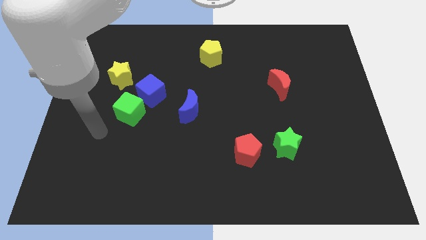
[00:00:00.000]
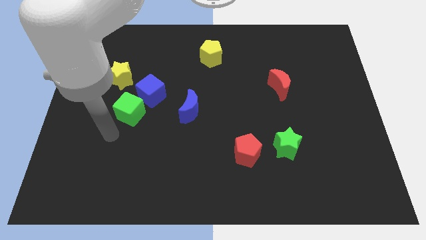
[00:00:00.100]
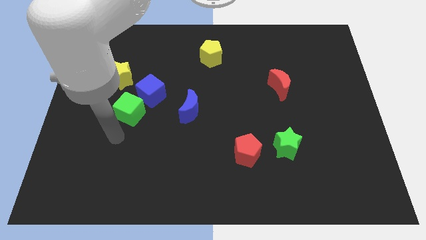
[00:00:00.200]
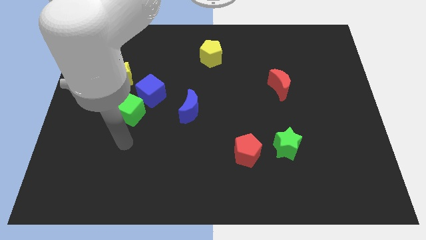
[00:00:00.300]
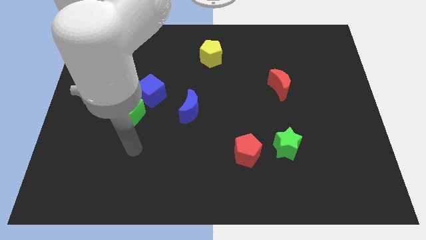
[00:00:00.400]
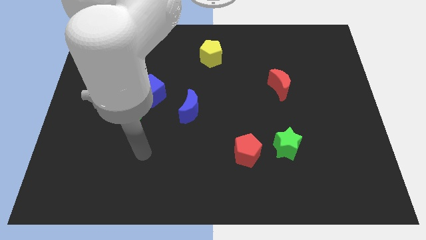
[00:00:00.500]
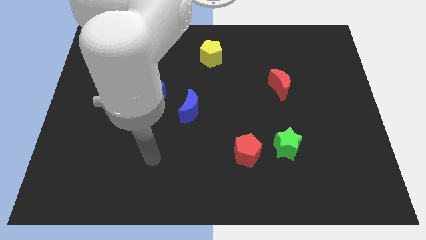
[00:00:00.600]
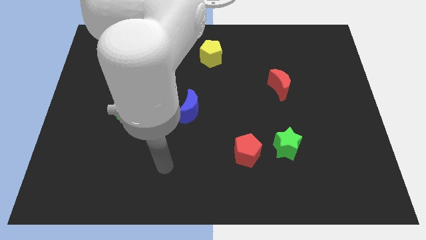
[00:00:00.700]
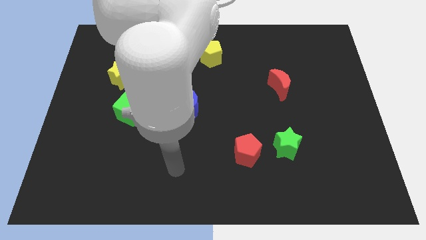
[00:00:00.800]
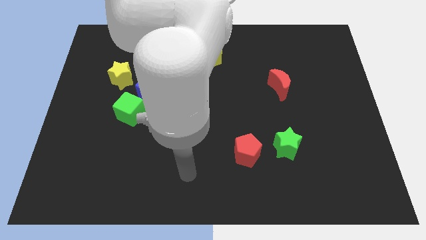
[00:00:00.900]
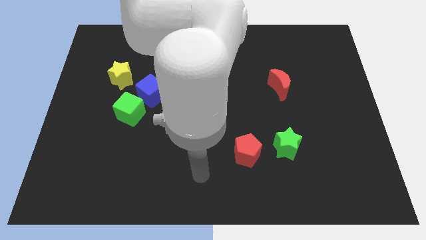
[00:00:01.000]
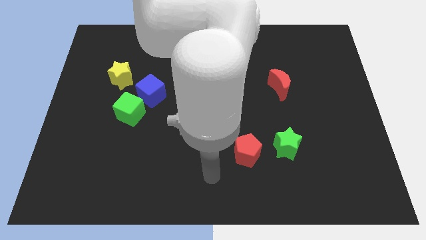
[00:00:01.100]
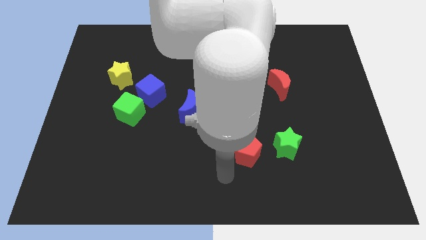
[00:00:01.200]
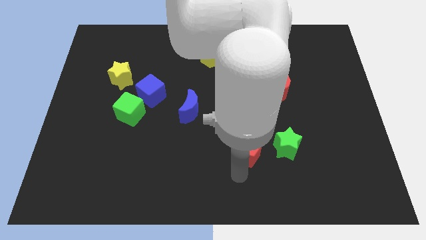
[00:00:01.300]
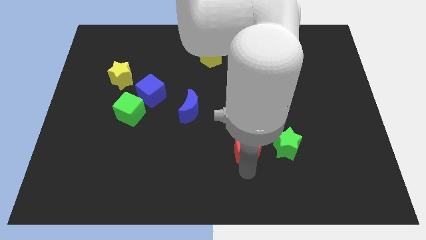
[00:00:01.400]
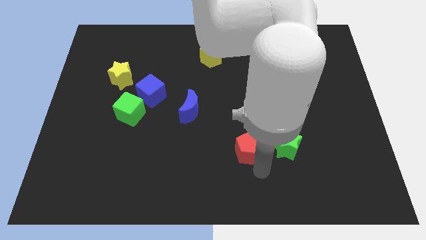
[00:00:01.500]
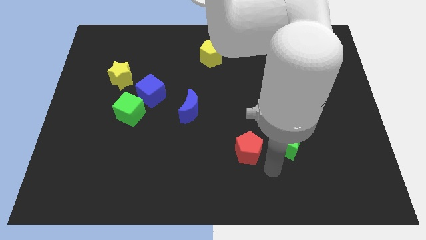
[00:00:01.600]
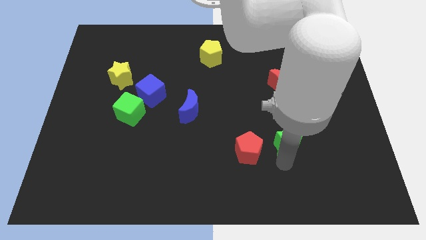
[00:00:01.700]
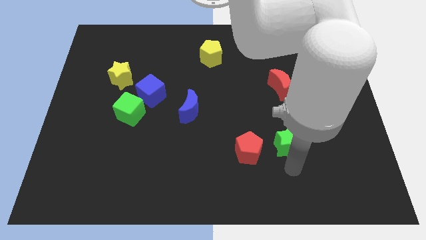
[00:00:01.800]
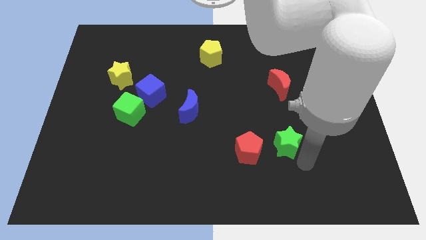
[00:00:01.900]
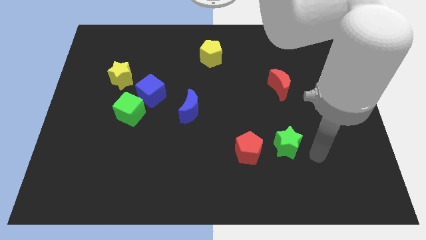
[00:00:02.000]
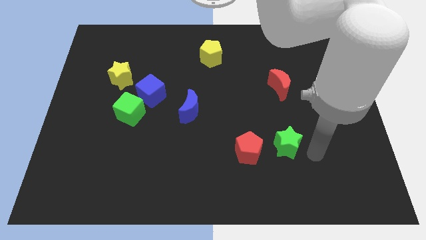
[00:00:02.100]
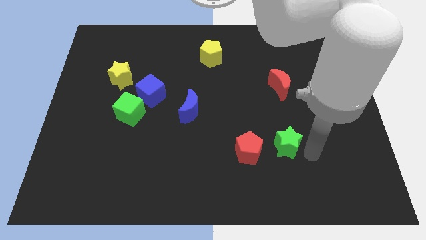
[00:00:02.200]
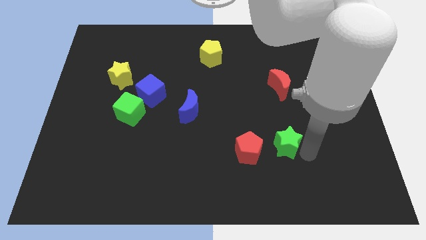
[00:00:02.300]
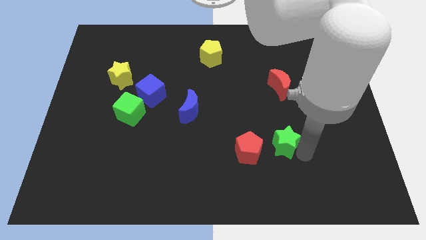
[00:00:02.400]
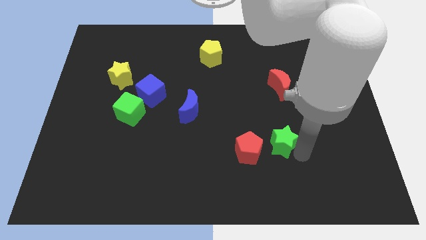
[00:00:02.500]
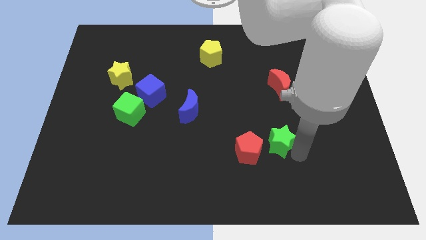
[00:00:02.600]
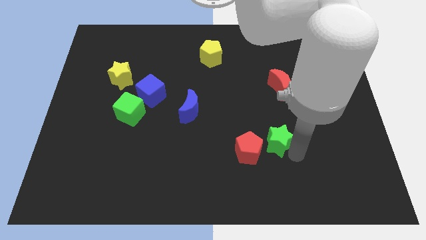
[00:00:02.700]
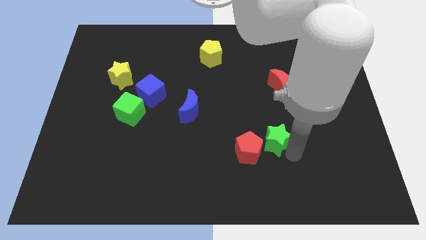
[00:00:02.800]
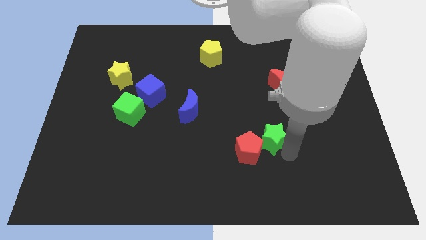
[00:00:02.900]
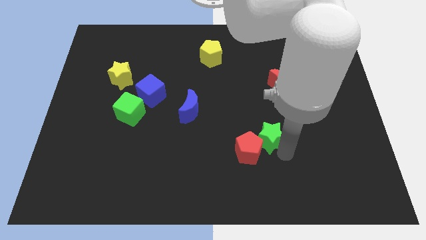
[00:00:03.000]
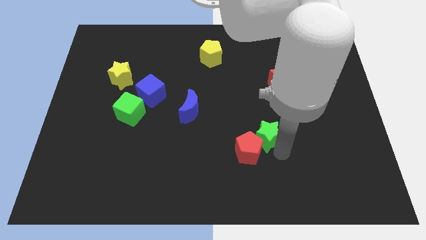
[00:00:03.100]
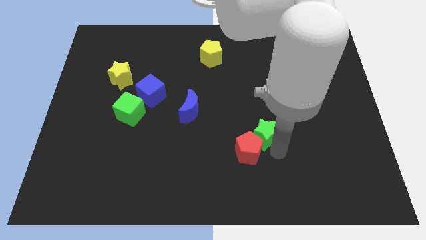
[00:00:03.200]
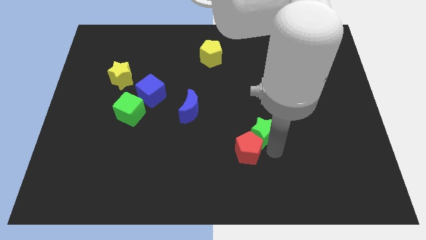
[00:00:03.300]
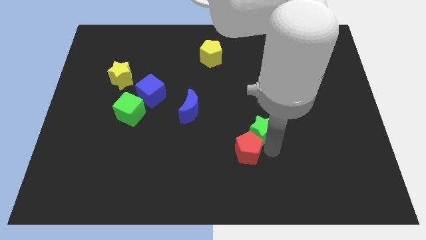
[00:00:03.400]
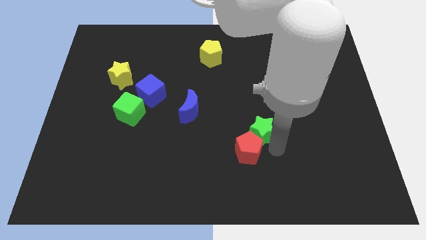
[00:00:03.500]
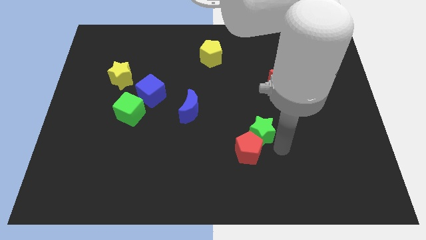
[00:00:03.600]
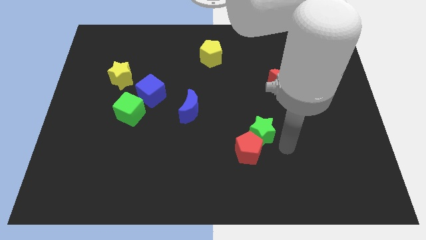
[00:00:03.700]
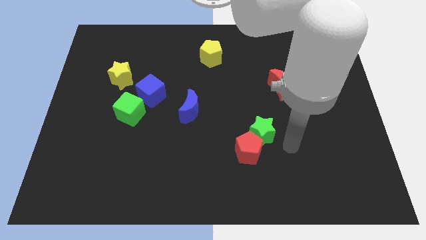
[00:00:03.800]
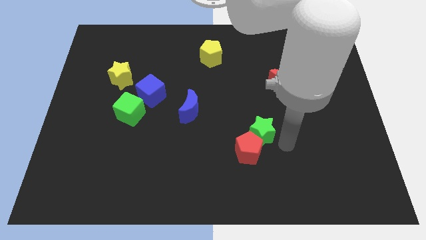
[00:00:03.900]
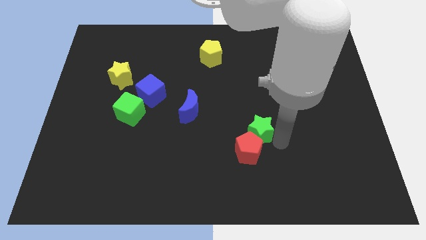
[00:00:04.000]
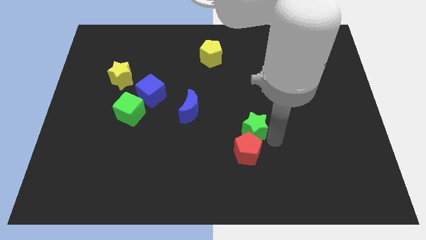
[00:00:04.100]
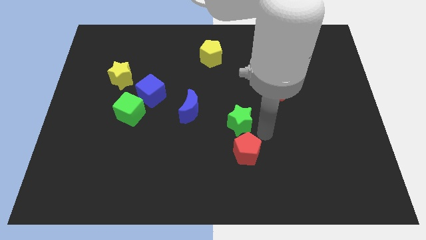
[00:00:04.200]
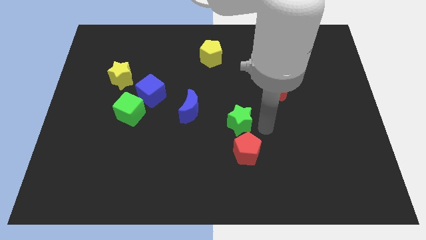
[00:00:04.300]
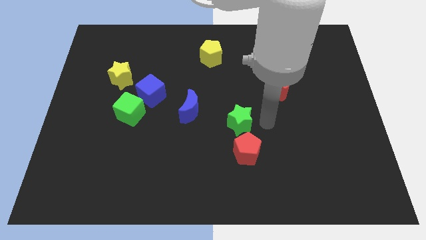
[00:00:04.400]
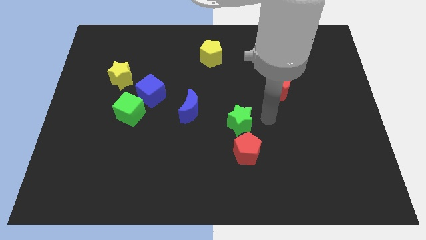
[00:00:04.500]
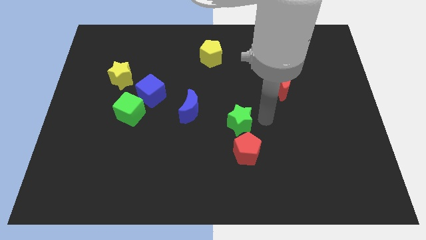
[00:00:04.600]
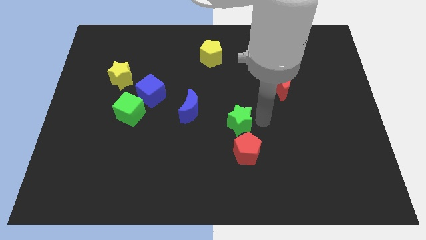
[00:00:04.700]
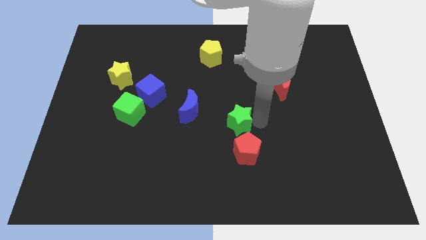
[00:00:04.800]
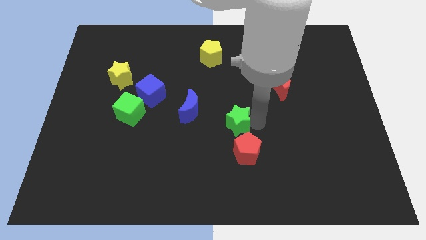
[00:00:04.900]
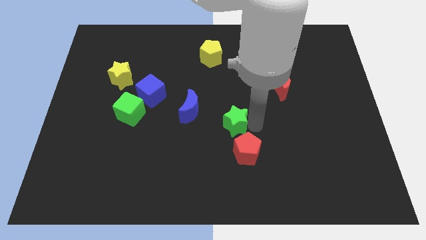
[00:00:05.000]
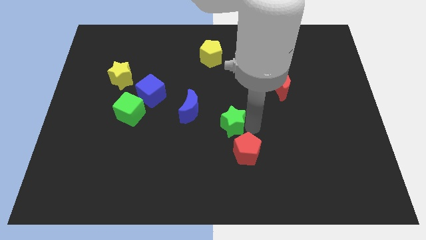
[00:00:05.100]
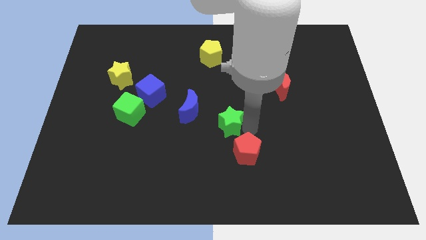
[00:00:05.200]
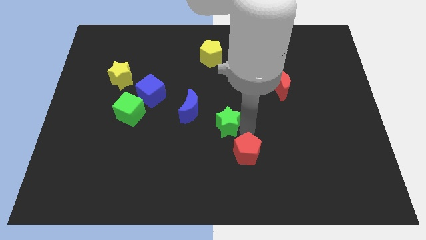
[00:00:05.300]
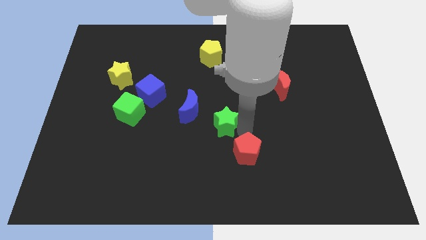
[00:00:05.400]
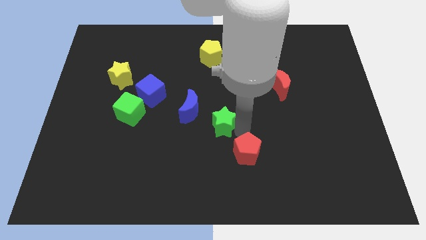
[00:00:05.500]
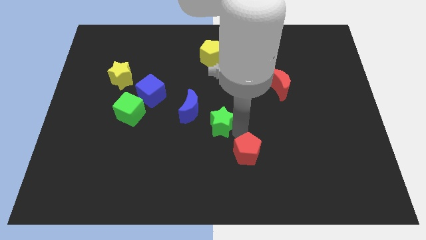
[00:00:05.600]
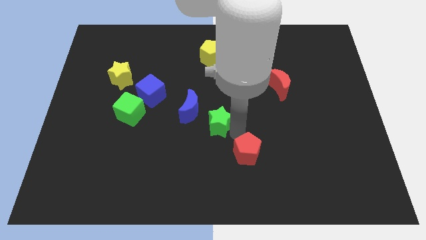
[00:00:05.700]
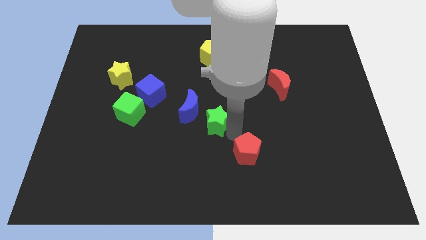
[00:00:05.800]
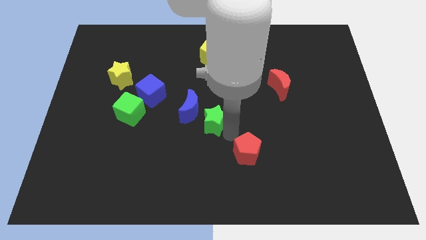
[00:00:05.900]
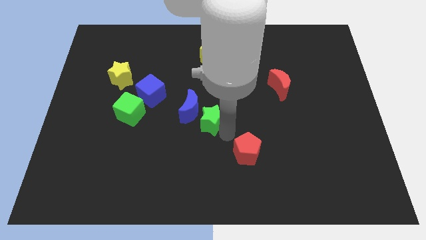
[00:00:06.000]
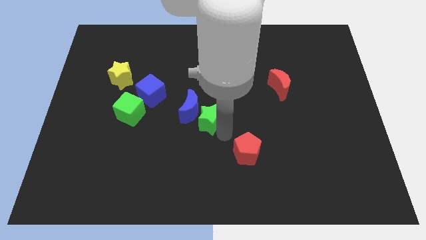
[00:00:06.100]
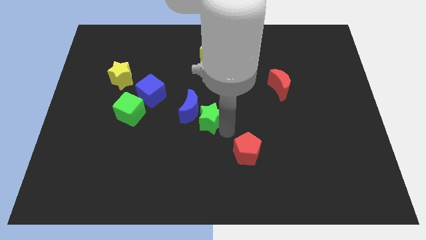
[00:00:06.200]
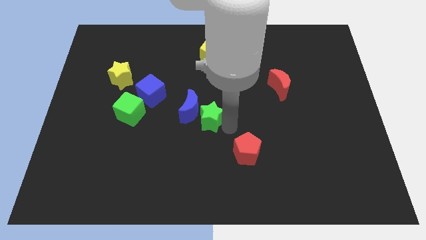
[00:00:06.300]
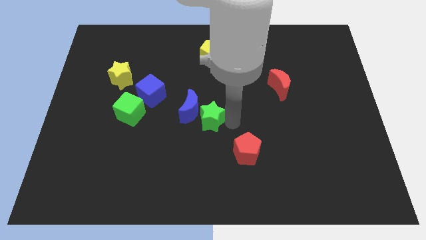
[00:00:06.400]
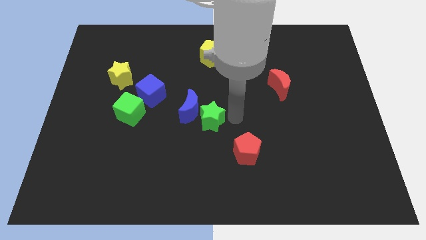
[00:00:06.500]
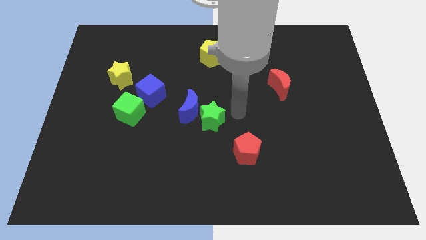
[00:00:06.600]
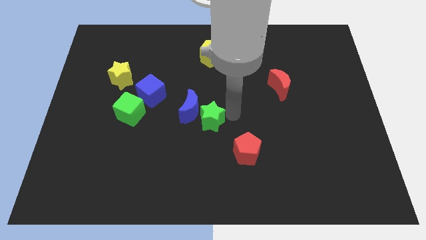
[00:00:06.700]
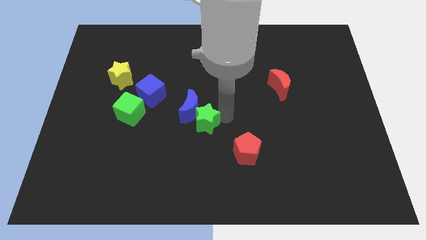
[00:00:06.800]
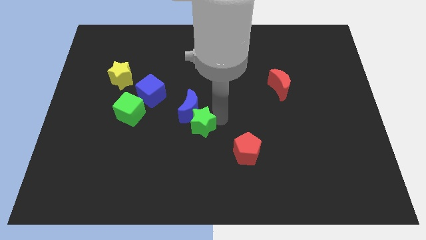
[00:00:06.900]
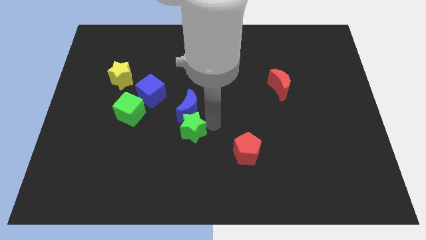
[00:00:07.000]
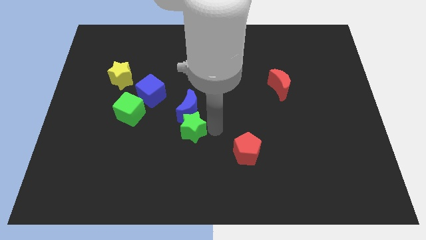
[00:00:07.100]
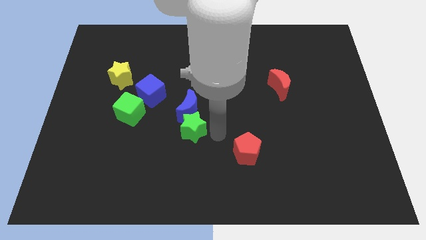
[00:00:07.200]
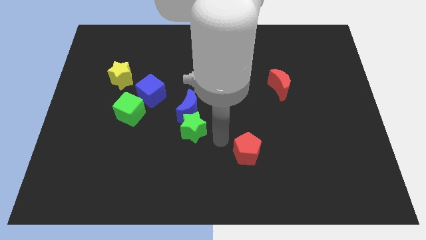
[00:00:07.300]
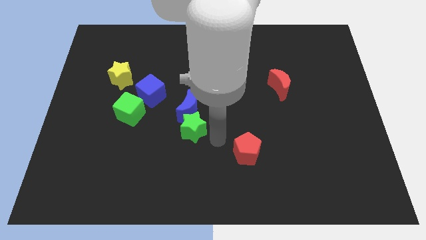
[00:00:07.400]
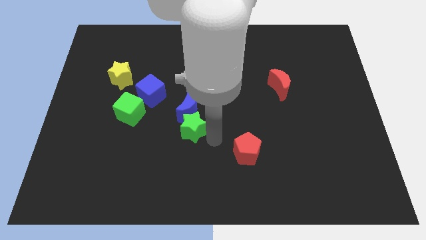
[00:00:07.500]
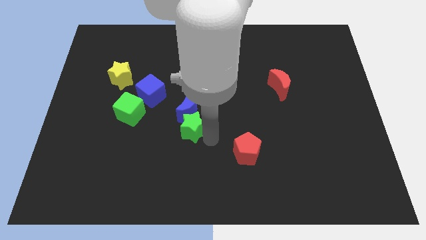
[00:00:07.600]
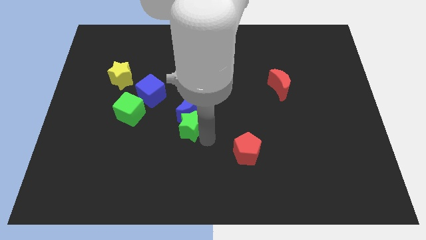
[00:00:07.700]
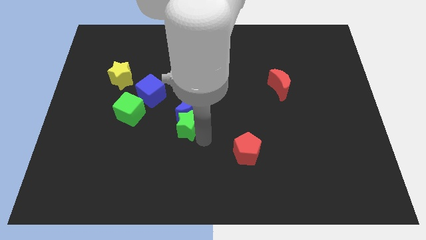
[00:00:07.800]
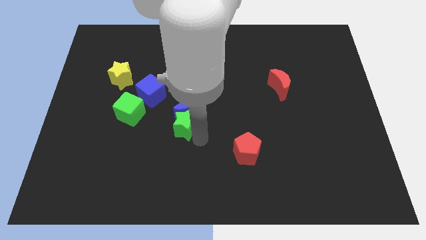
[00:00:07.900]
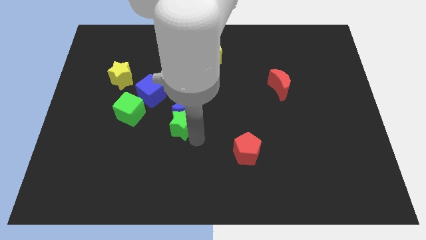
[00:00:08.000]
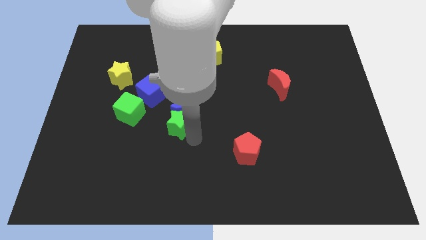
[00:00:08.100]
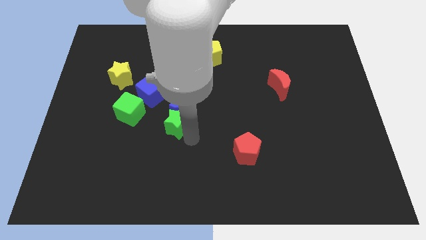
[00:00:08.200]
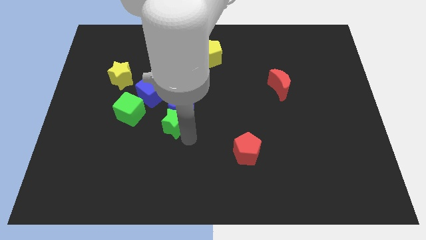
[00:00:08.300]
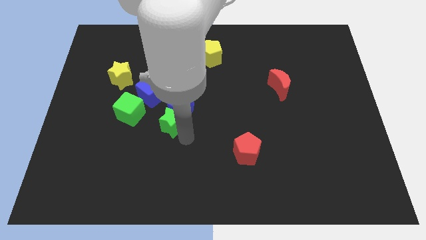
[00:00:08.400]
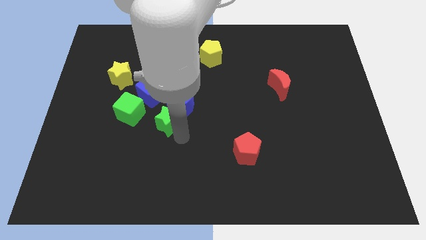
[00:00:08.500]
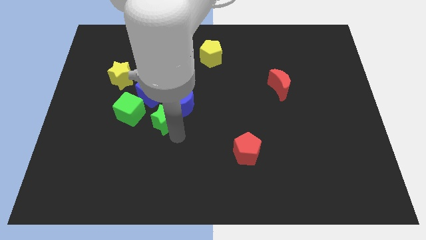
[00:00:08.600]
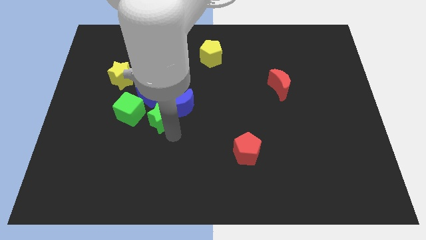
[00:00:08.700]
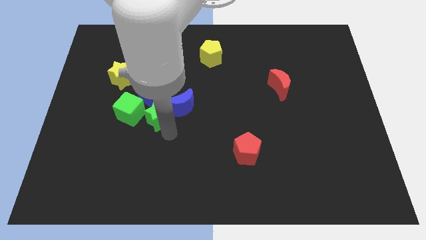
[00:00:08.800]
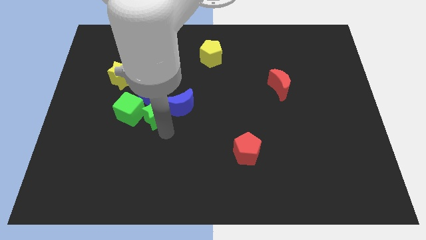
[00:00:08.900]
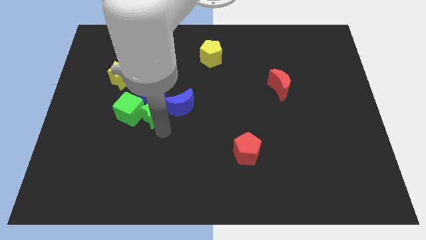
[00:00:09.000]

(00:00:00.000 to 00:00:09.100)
slide the green star to the green cube
